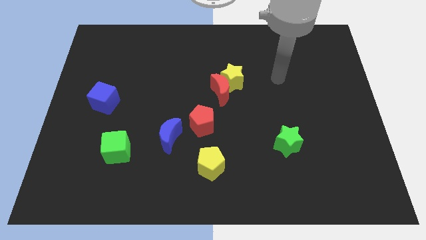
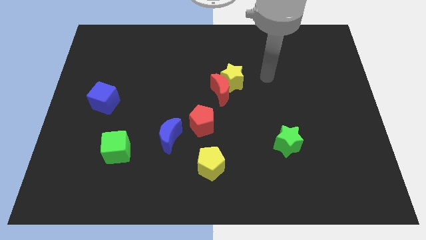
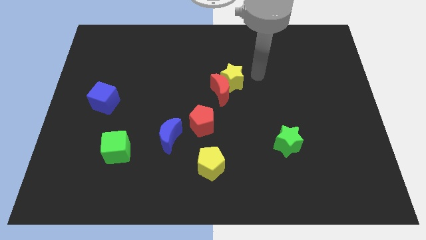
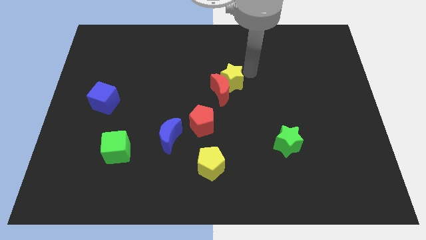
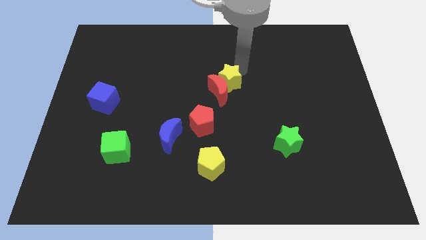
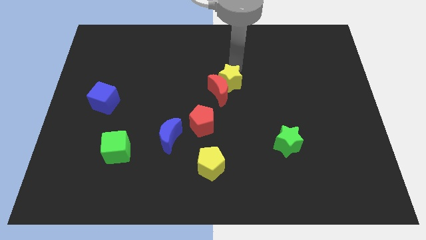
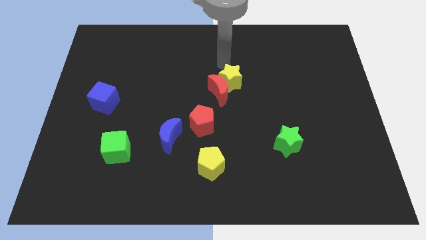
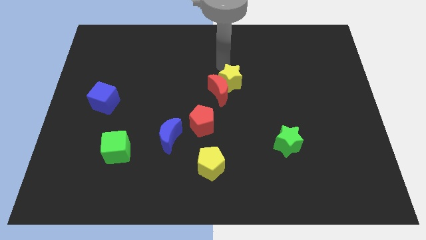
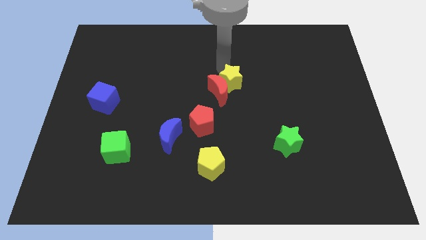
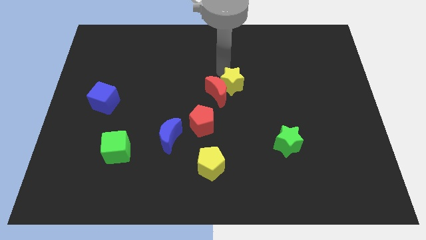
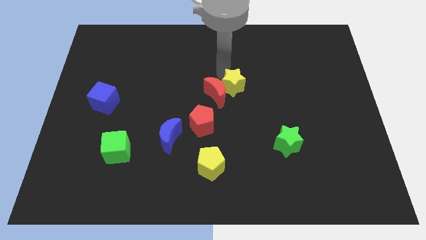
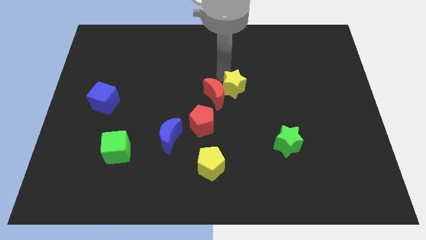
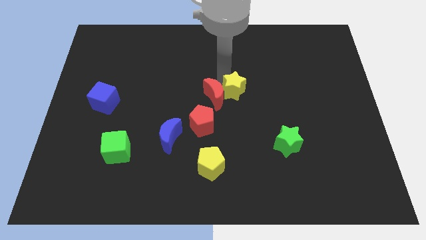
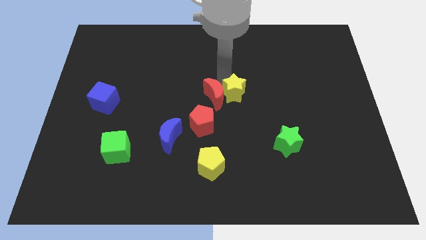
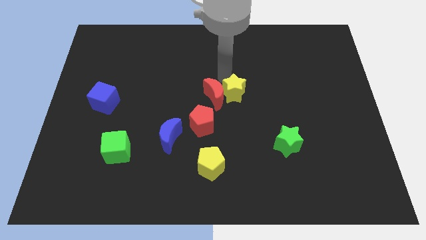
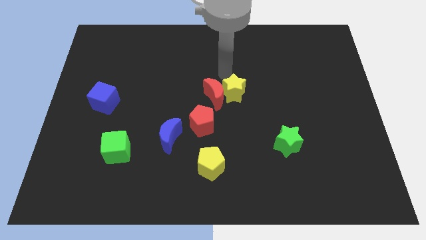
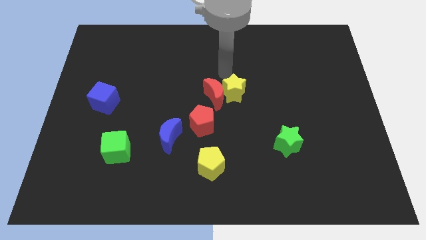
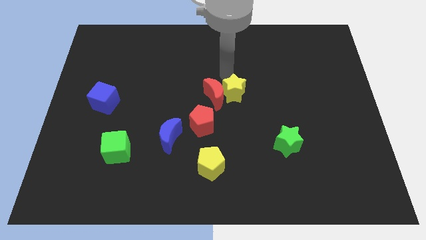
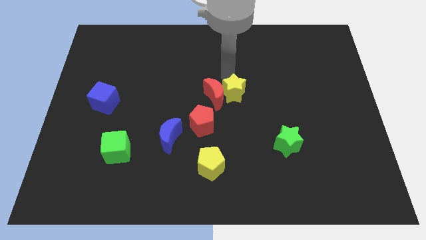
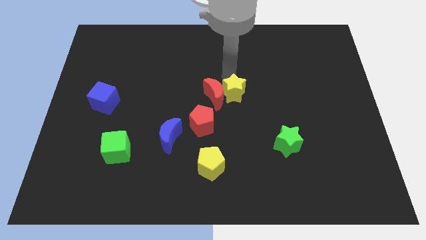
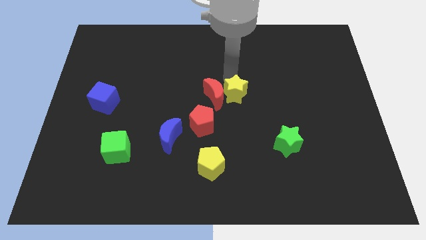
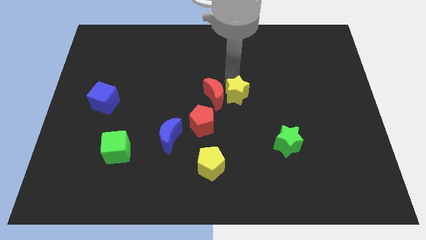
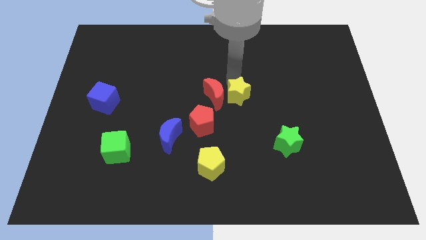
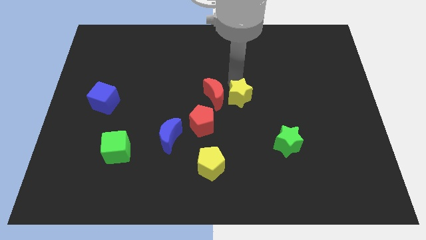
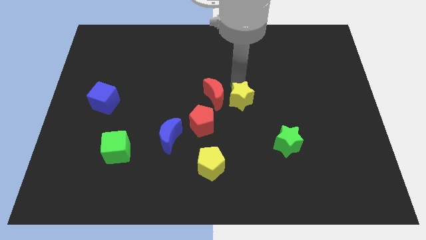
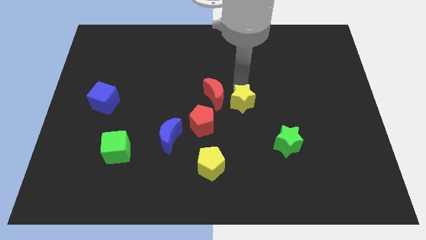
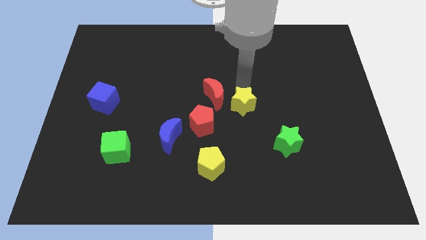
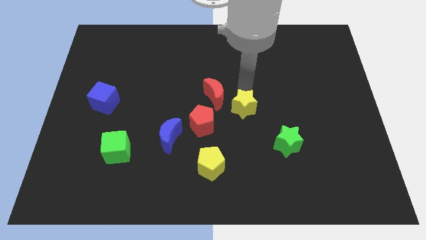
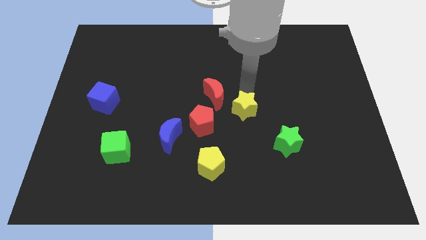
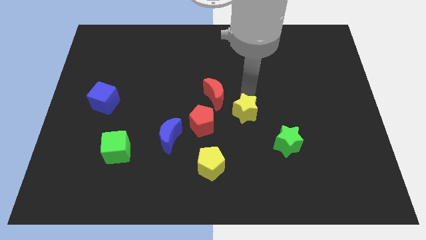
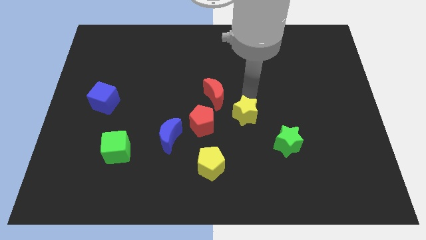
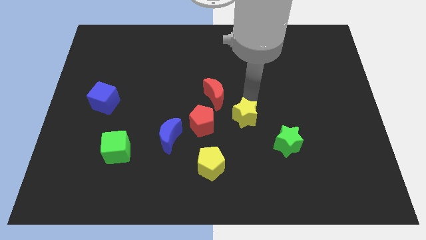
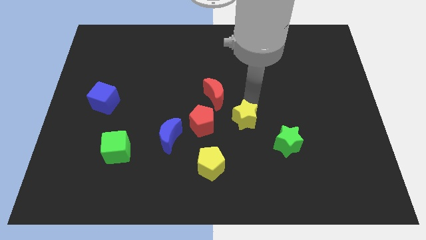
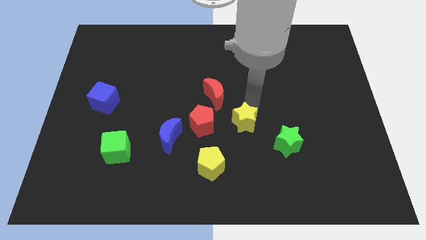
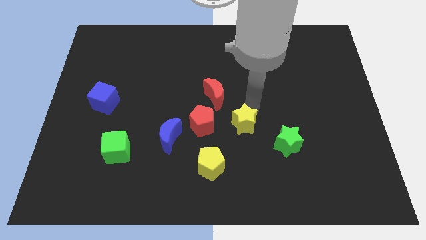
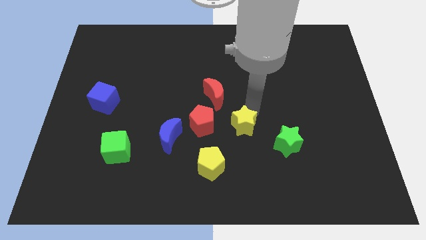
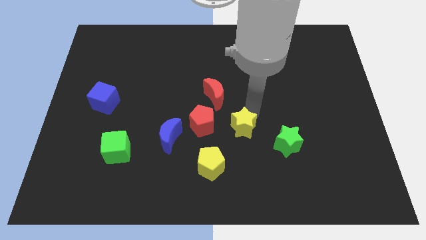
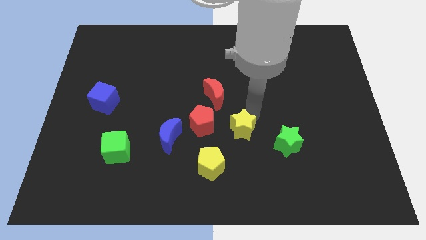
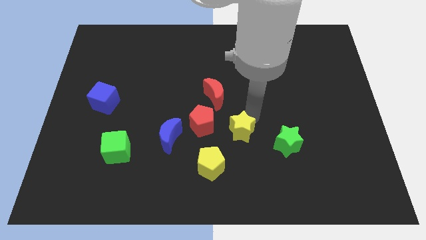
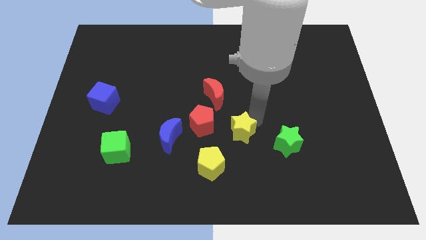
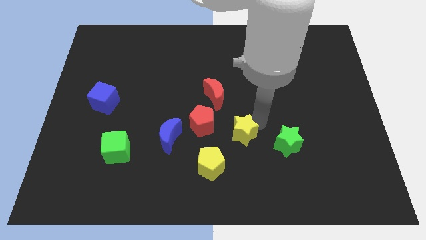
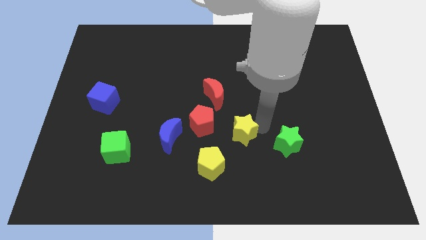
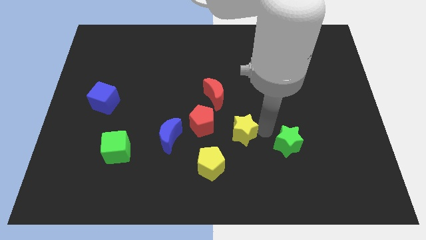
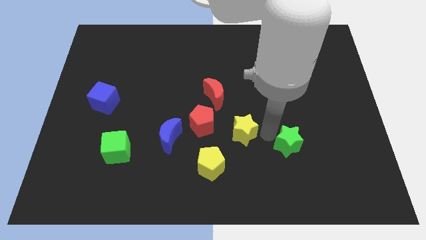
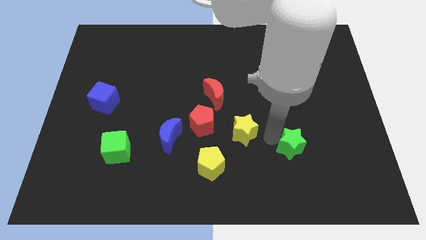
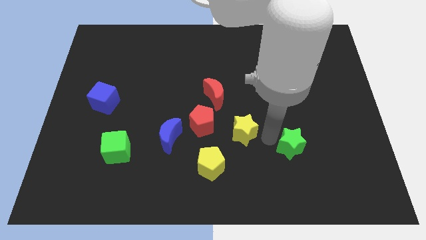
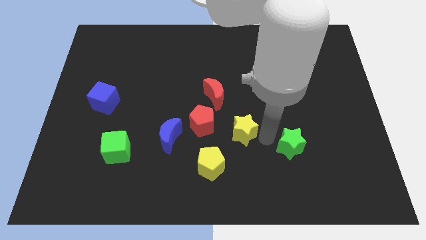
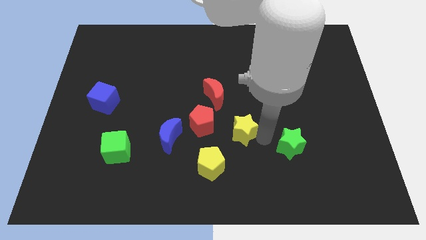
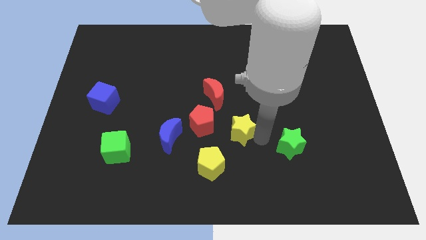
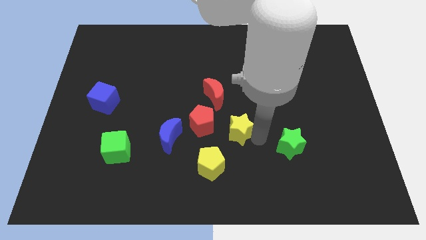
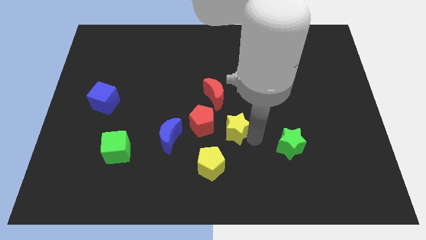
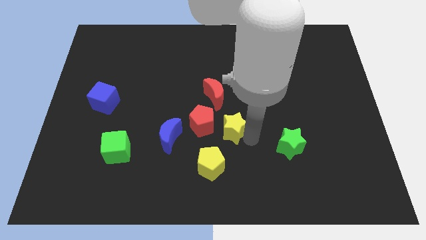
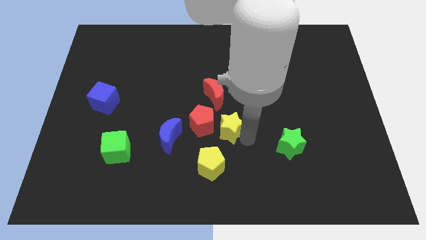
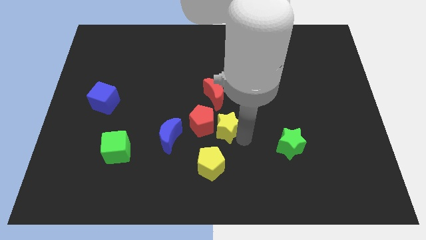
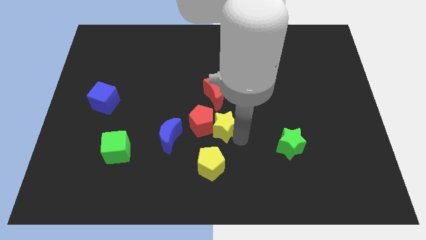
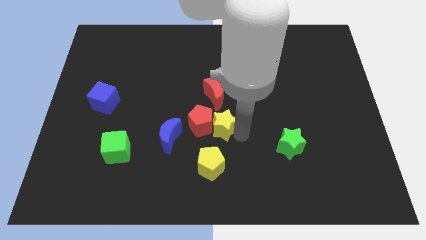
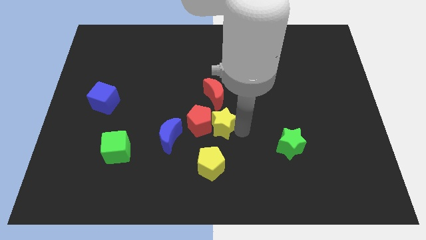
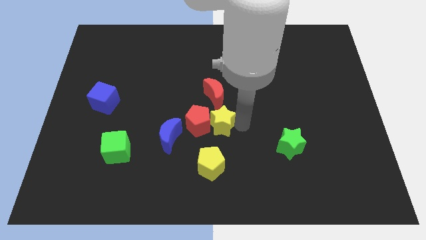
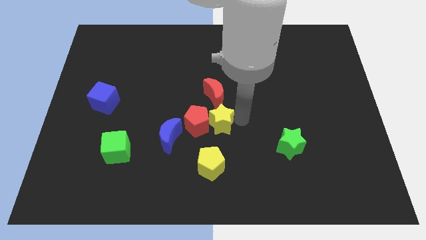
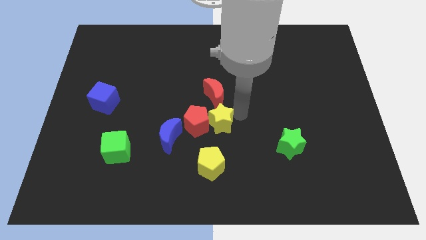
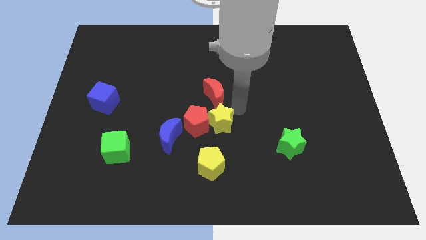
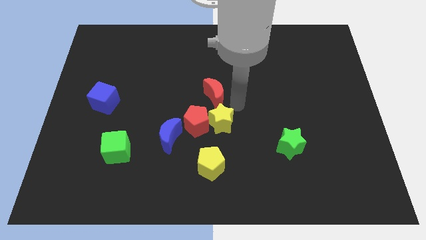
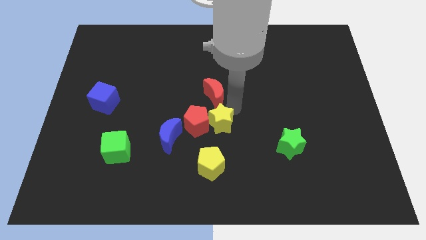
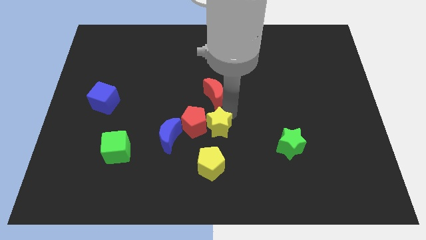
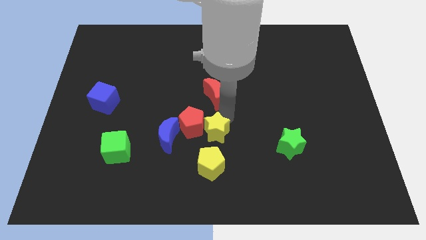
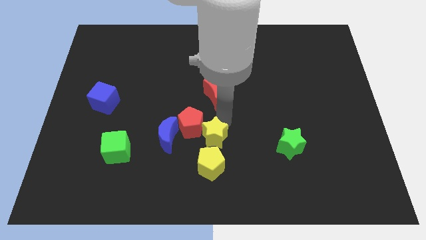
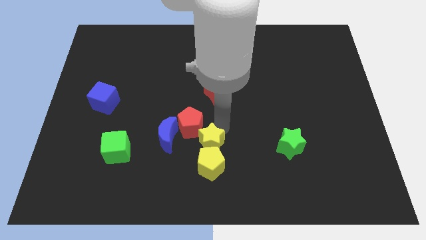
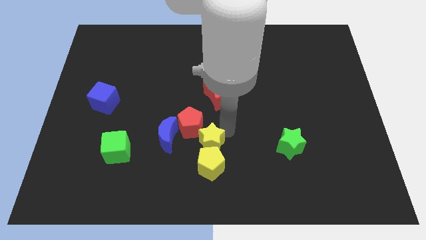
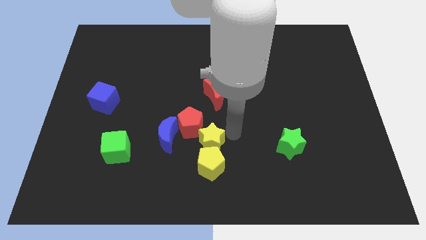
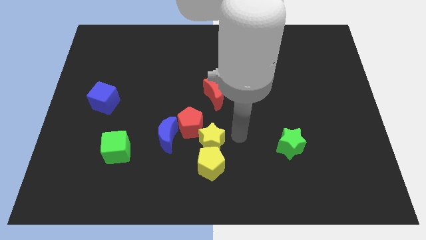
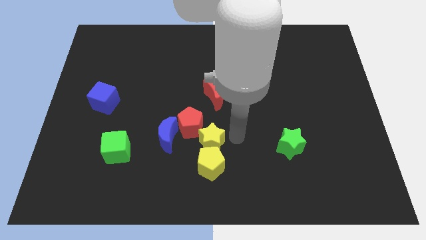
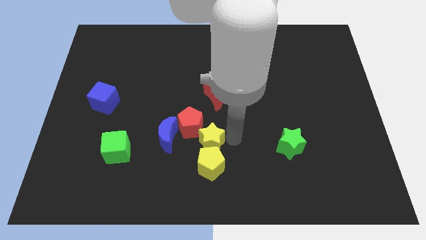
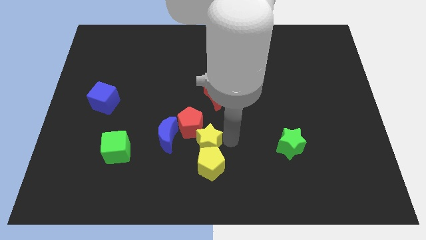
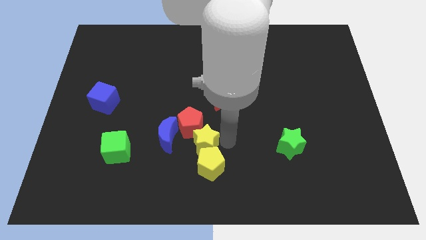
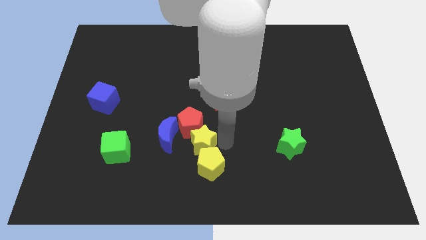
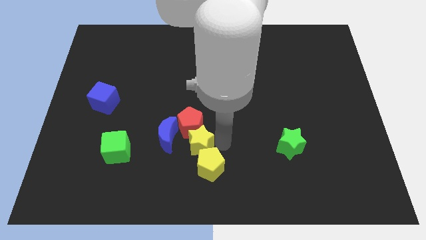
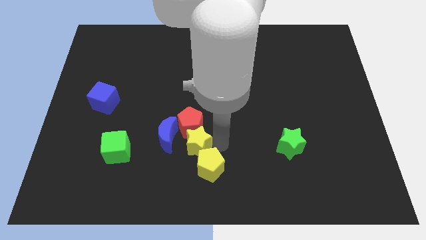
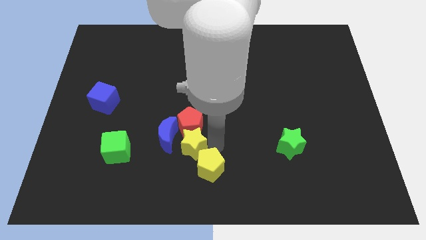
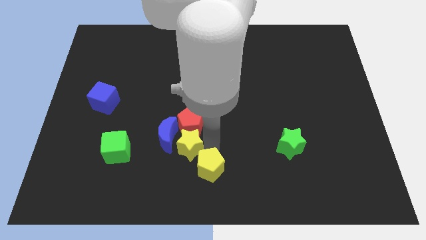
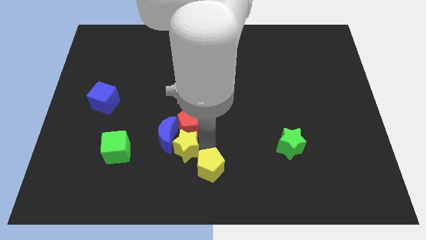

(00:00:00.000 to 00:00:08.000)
move the yellow star down and left diagonally
